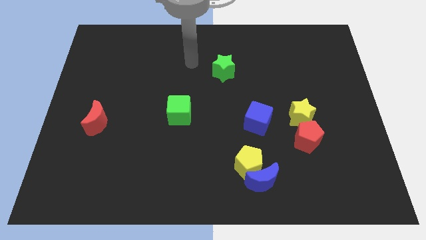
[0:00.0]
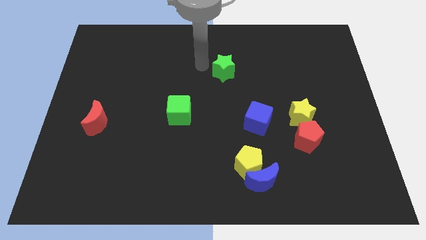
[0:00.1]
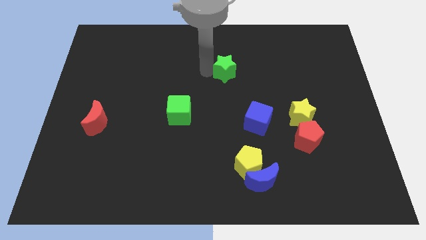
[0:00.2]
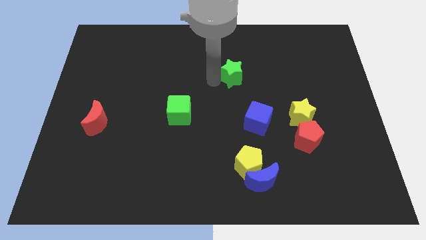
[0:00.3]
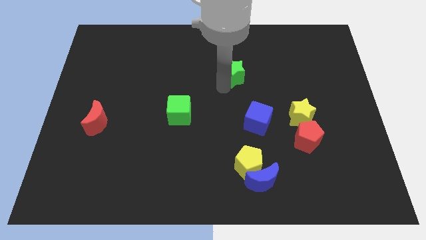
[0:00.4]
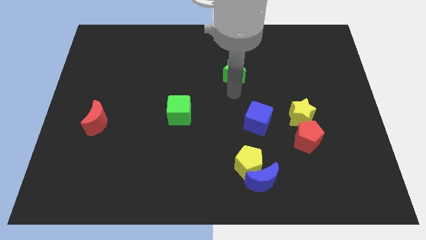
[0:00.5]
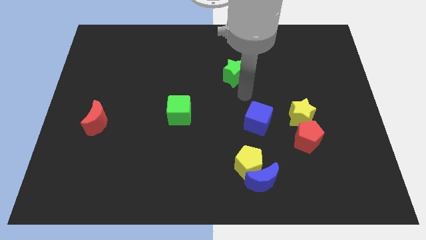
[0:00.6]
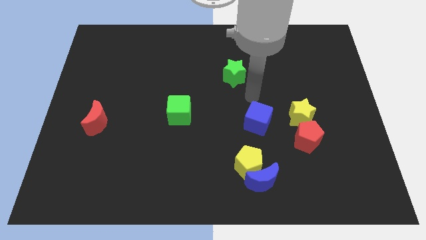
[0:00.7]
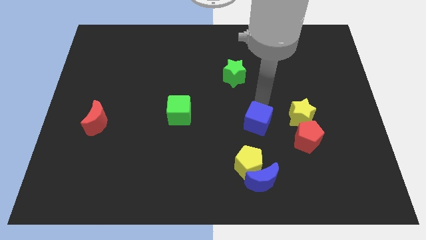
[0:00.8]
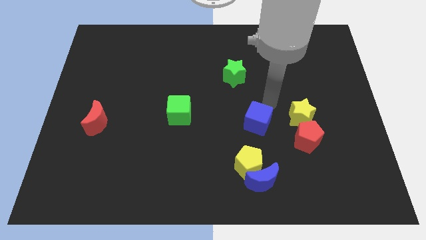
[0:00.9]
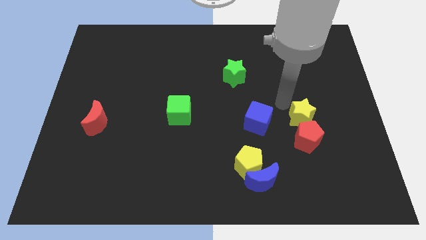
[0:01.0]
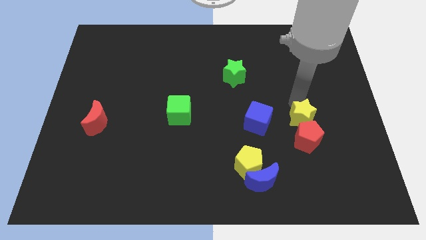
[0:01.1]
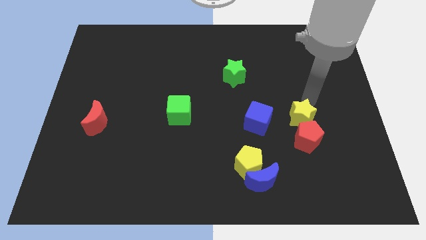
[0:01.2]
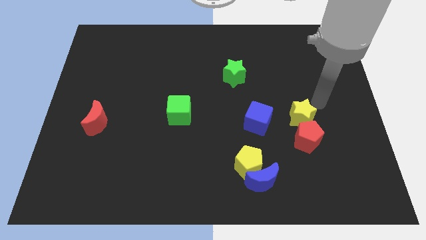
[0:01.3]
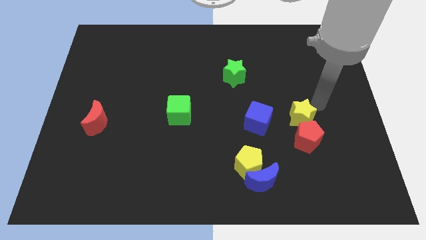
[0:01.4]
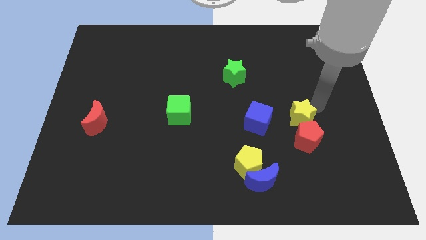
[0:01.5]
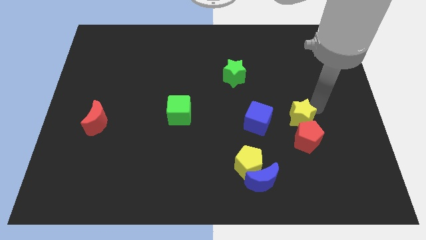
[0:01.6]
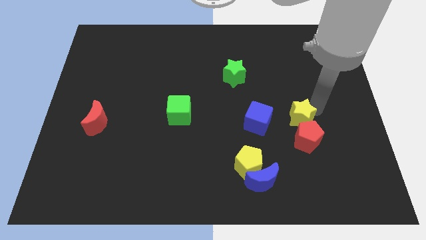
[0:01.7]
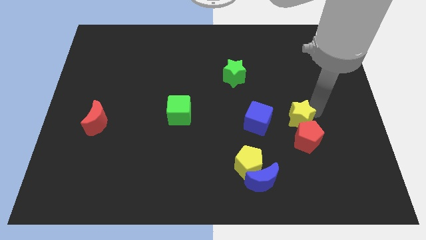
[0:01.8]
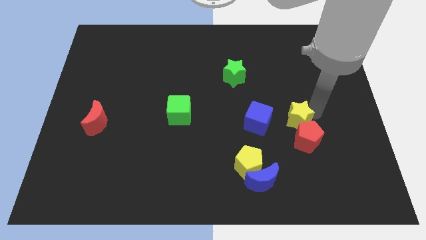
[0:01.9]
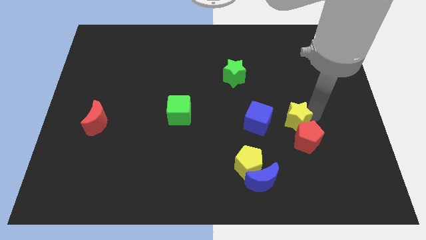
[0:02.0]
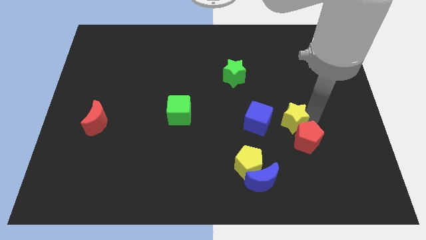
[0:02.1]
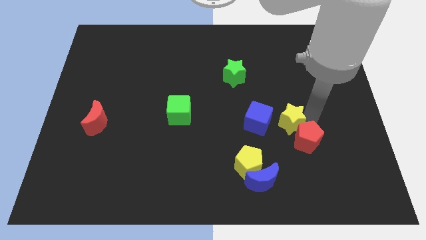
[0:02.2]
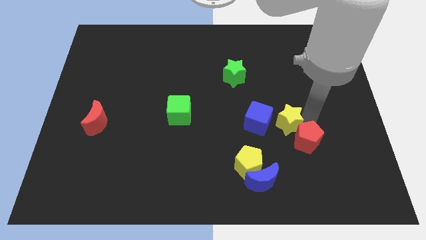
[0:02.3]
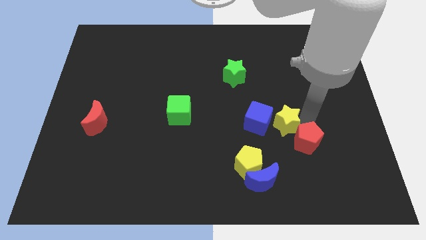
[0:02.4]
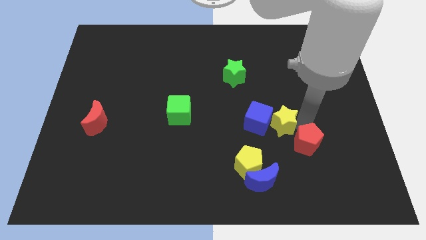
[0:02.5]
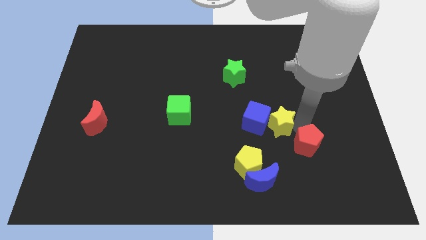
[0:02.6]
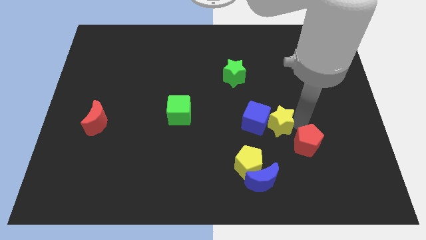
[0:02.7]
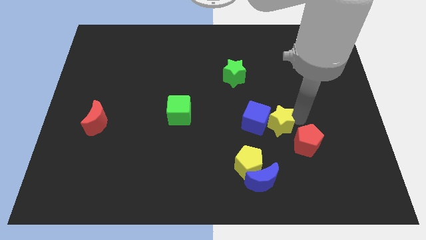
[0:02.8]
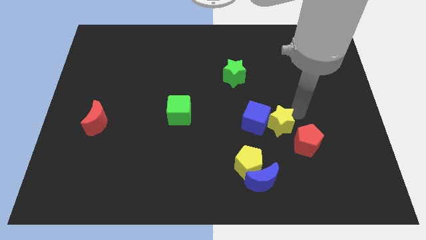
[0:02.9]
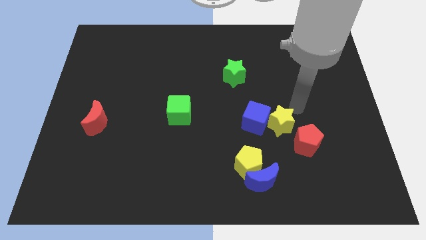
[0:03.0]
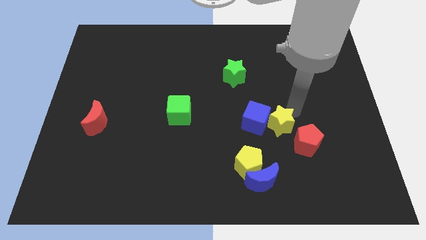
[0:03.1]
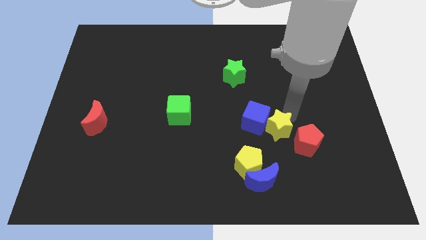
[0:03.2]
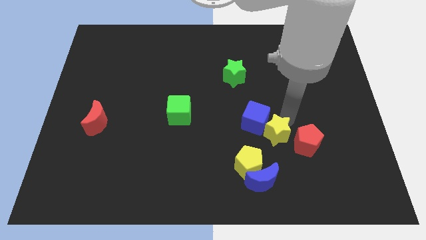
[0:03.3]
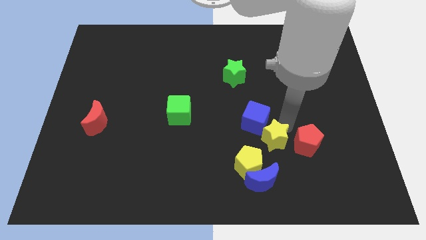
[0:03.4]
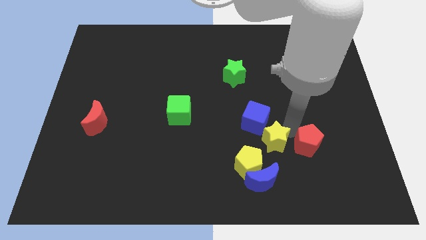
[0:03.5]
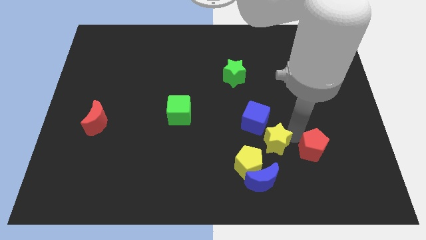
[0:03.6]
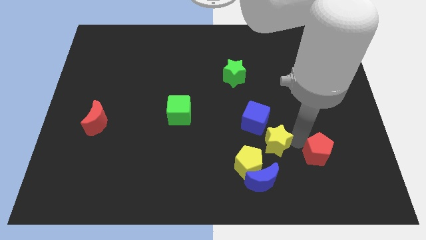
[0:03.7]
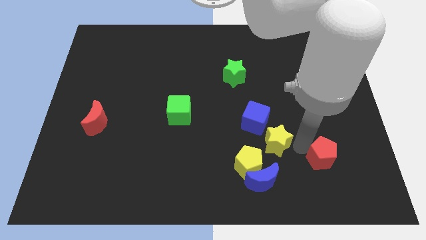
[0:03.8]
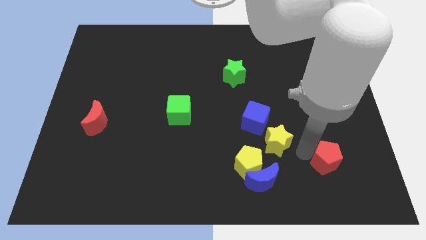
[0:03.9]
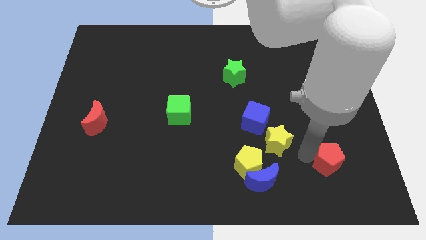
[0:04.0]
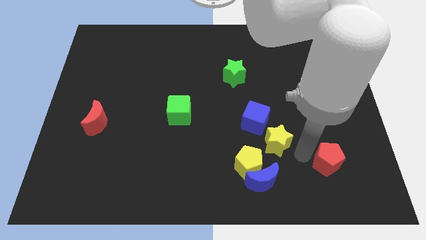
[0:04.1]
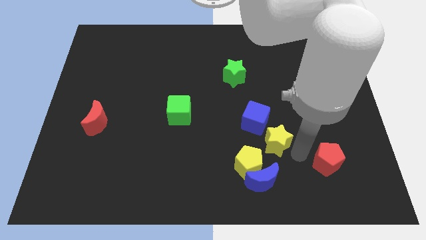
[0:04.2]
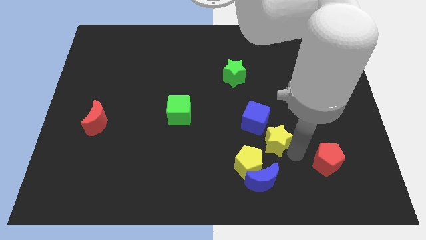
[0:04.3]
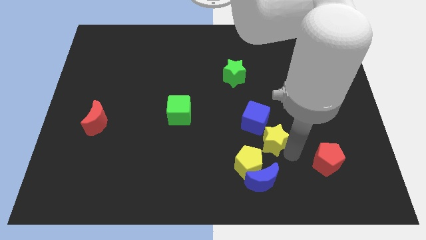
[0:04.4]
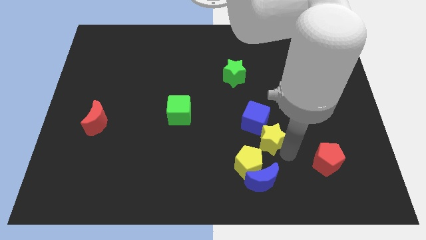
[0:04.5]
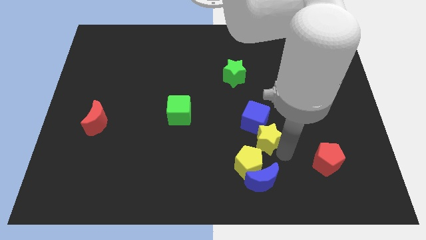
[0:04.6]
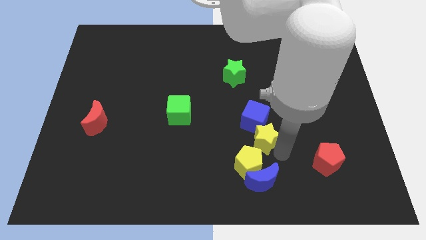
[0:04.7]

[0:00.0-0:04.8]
slide the yellow star a bit left

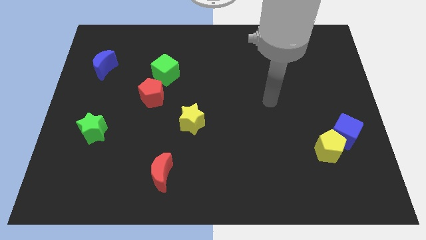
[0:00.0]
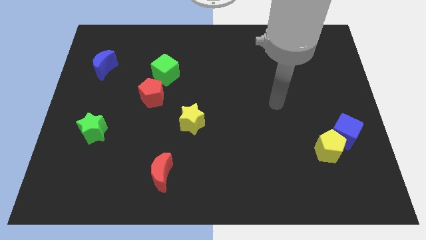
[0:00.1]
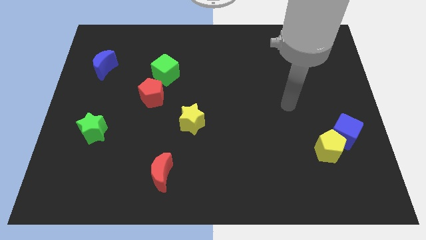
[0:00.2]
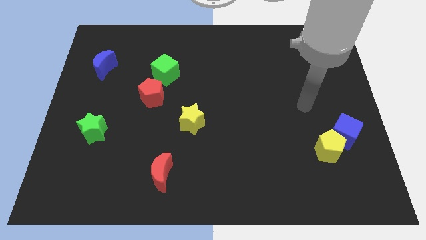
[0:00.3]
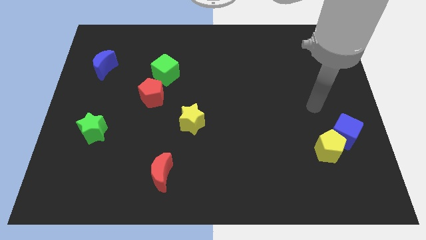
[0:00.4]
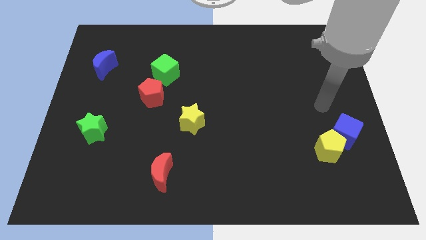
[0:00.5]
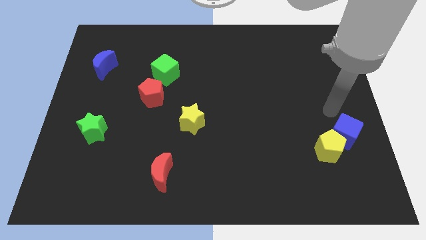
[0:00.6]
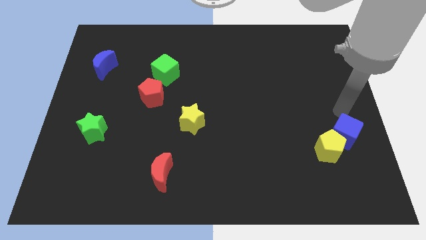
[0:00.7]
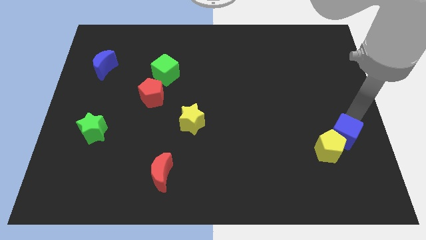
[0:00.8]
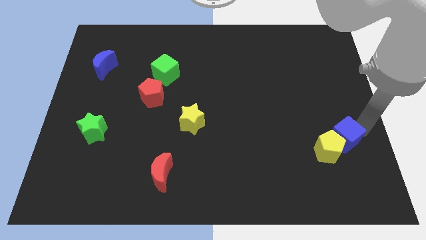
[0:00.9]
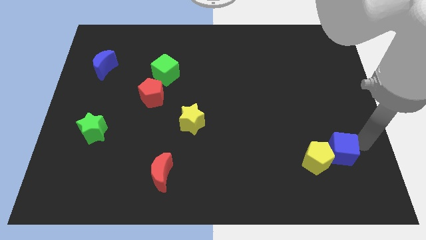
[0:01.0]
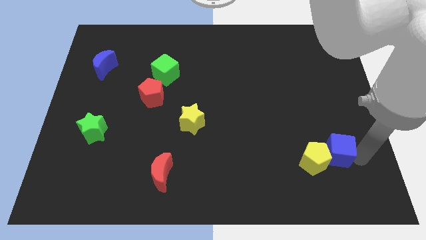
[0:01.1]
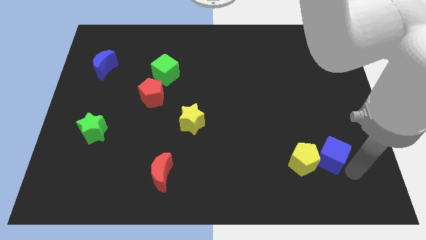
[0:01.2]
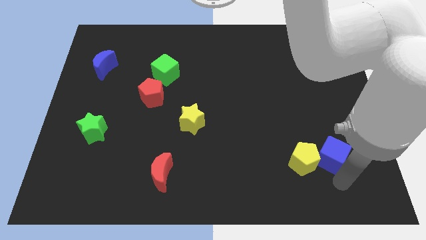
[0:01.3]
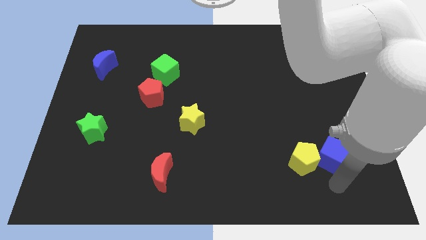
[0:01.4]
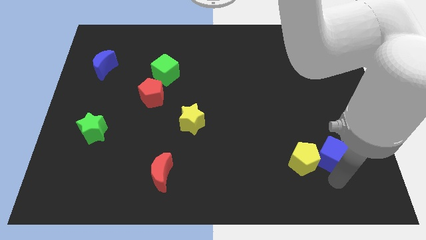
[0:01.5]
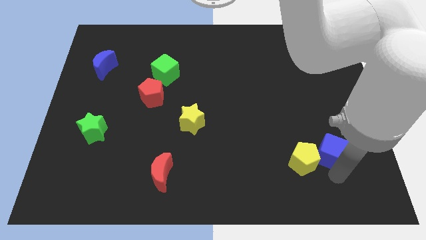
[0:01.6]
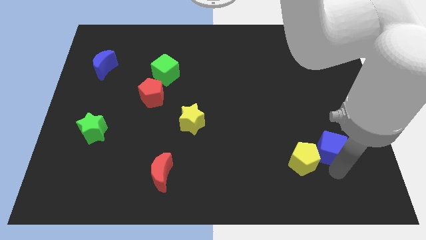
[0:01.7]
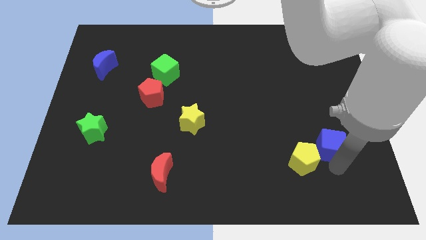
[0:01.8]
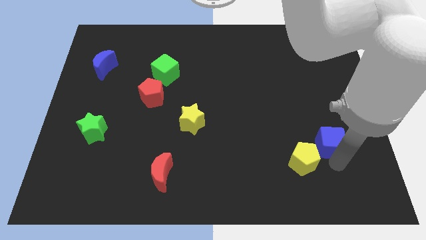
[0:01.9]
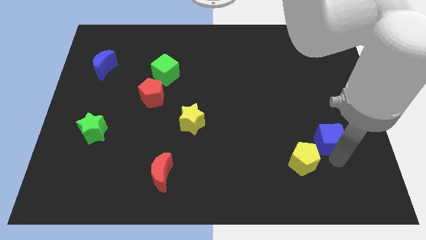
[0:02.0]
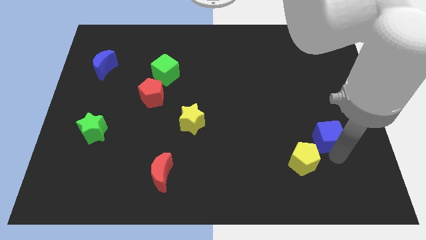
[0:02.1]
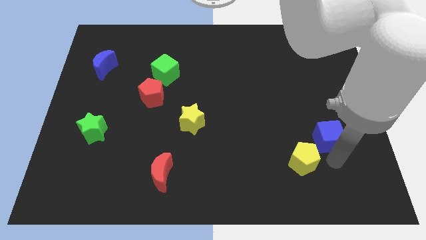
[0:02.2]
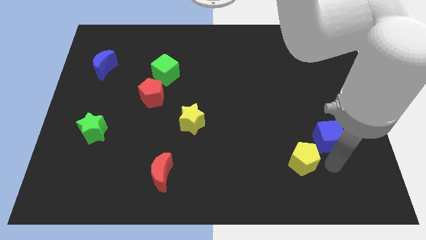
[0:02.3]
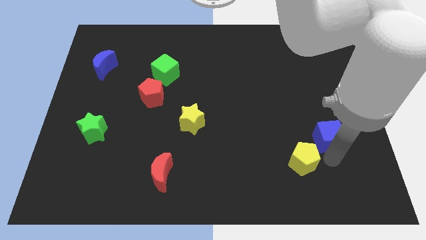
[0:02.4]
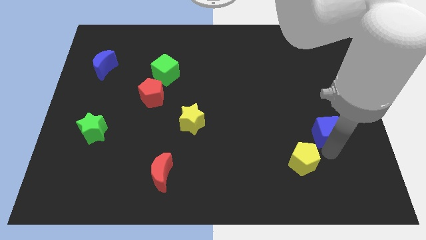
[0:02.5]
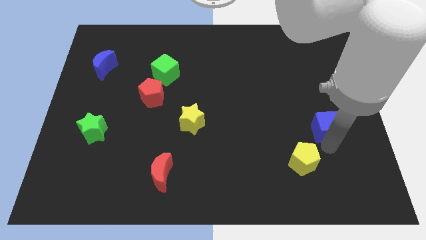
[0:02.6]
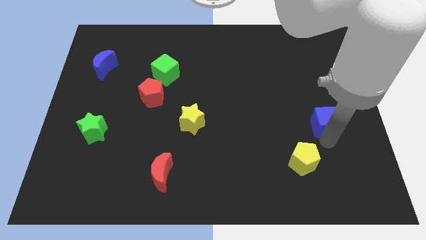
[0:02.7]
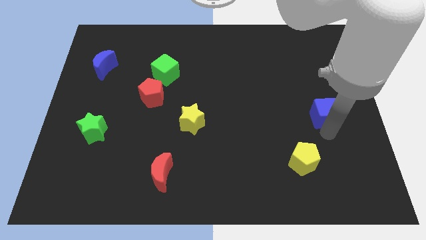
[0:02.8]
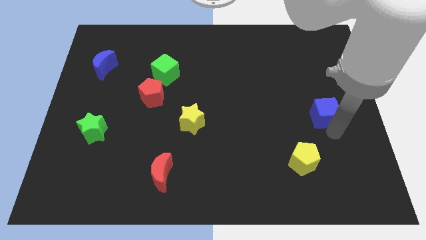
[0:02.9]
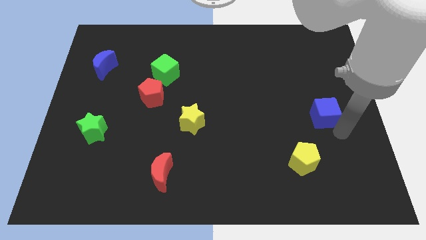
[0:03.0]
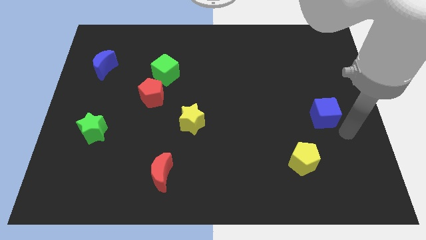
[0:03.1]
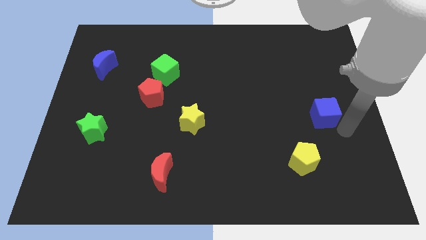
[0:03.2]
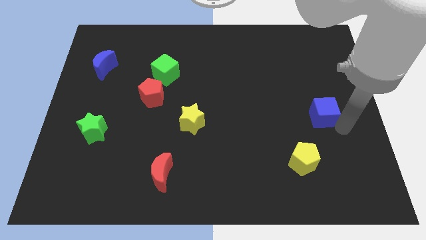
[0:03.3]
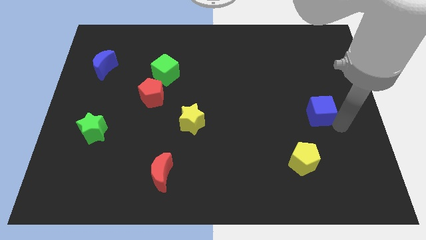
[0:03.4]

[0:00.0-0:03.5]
push the blue cube a little upwards and to the left
